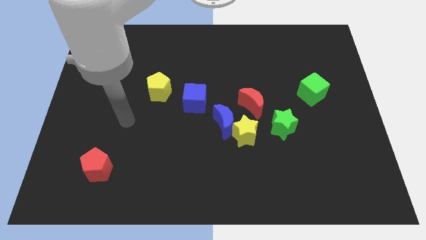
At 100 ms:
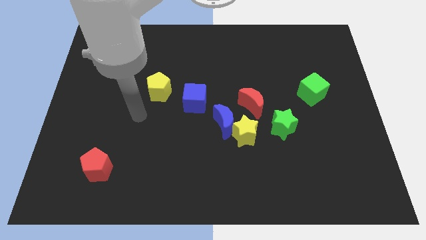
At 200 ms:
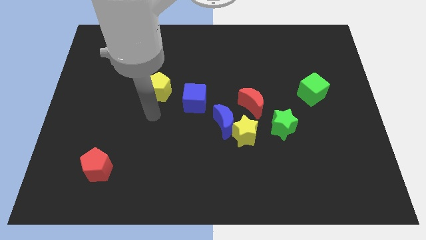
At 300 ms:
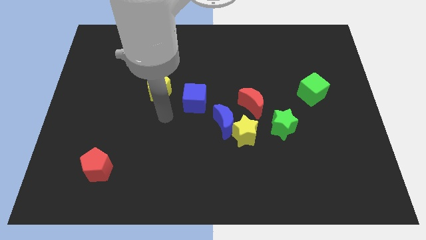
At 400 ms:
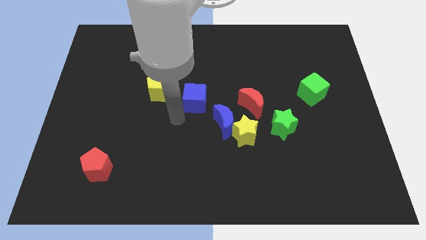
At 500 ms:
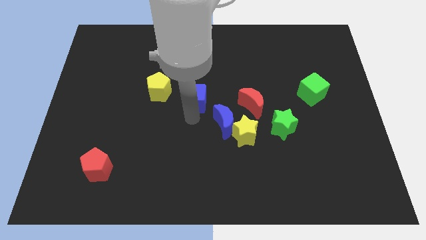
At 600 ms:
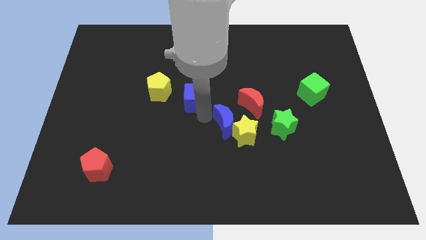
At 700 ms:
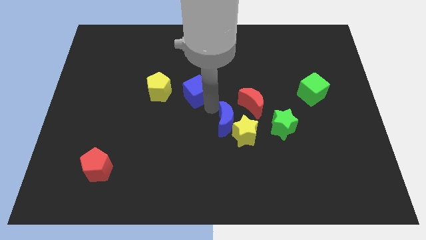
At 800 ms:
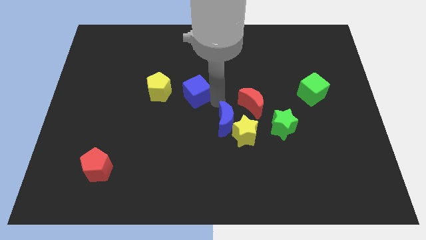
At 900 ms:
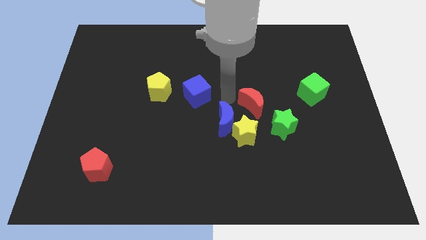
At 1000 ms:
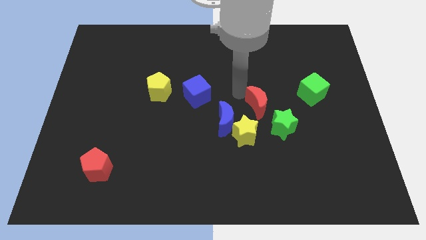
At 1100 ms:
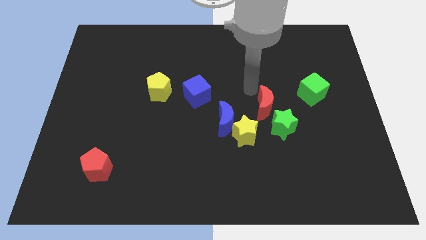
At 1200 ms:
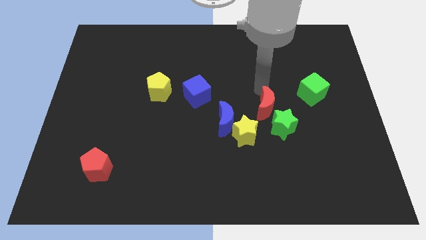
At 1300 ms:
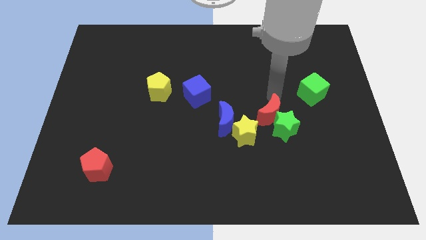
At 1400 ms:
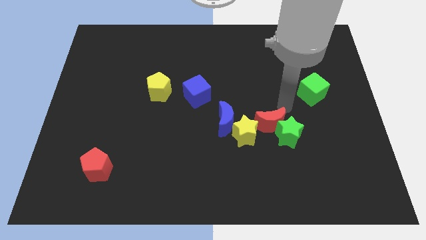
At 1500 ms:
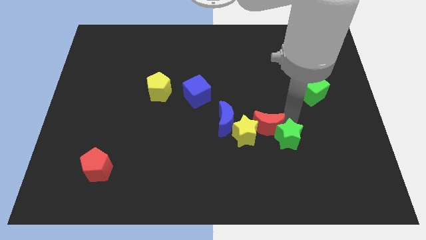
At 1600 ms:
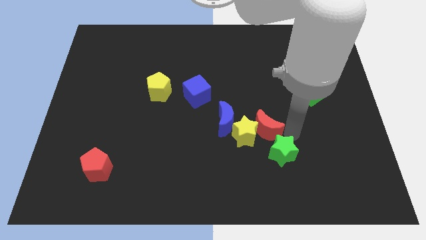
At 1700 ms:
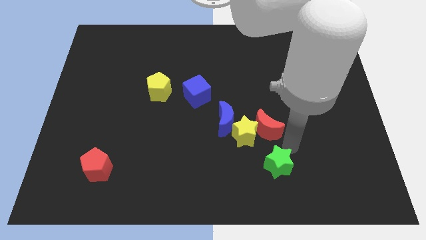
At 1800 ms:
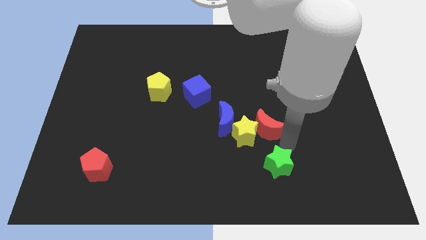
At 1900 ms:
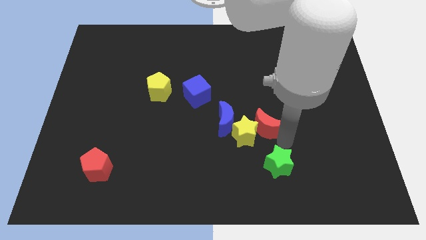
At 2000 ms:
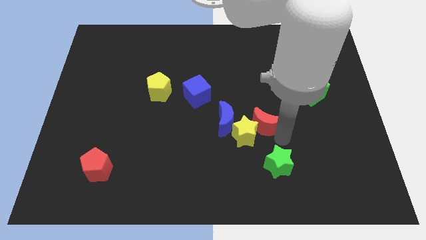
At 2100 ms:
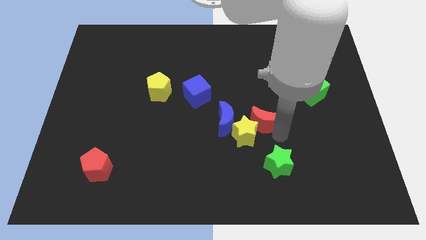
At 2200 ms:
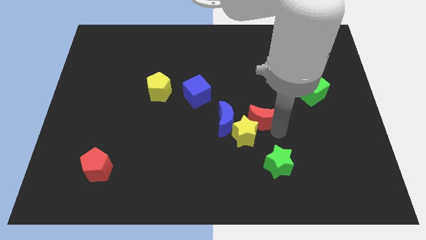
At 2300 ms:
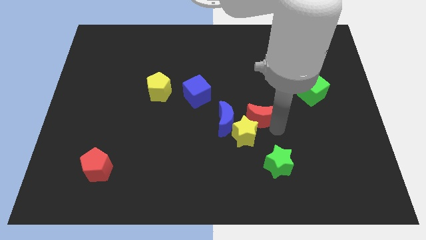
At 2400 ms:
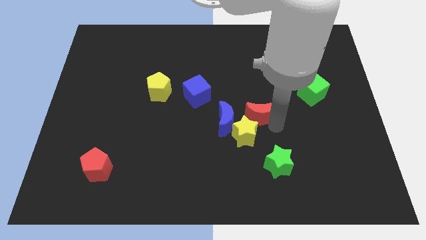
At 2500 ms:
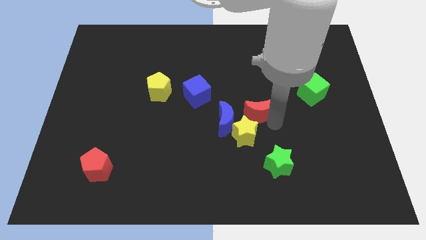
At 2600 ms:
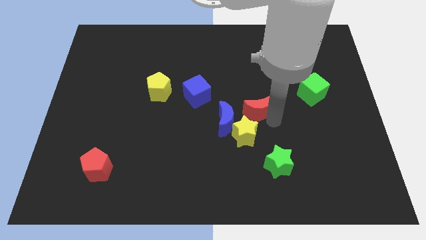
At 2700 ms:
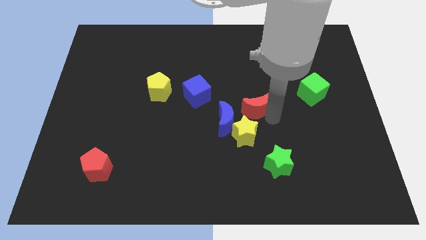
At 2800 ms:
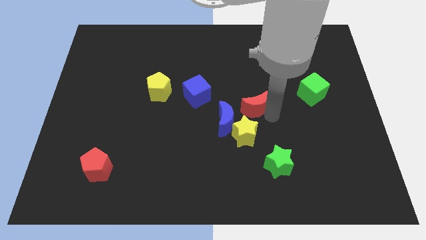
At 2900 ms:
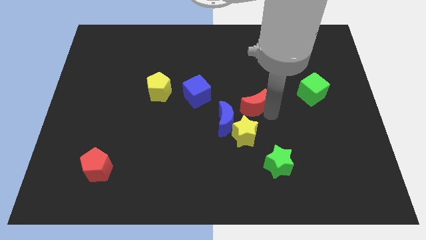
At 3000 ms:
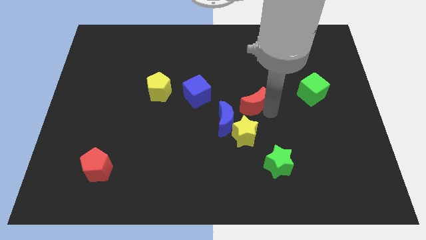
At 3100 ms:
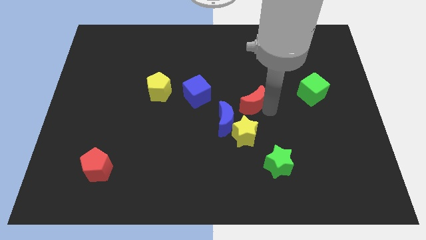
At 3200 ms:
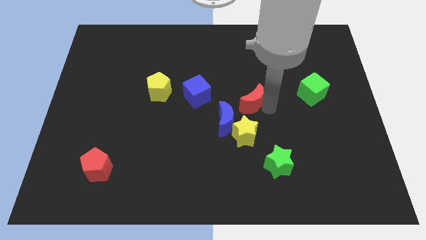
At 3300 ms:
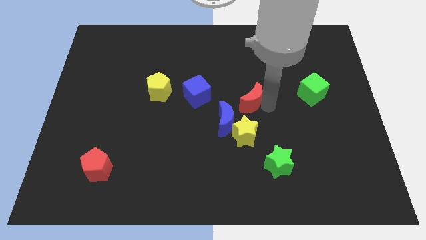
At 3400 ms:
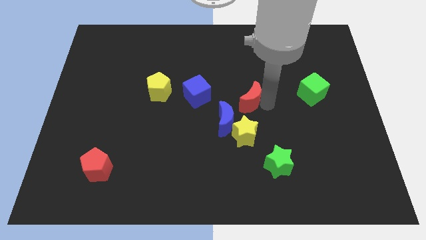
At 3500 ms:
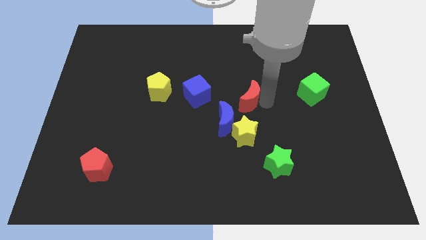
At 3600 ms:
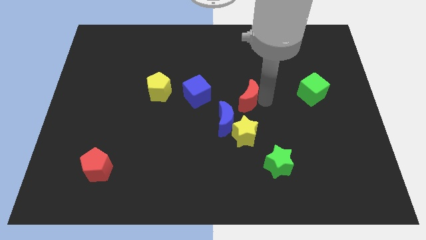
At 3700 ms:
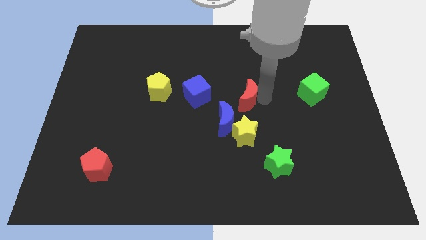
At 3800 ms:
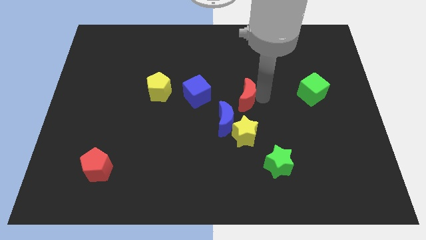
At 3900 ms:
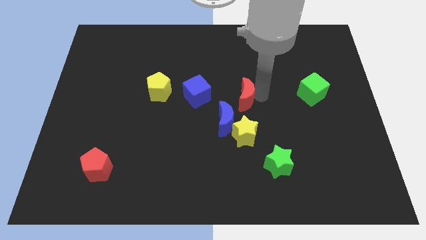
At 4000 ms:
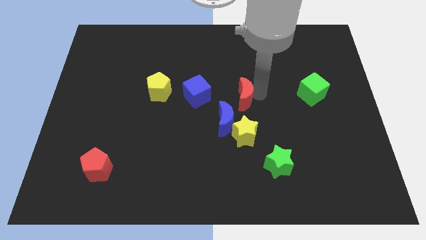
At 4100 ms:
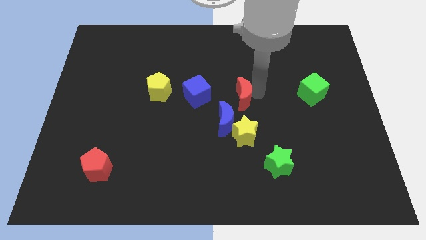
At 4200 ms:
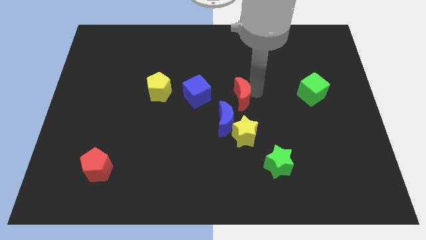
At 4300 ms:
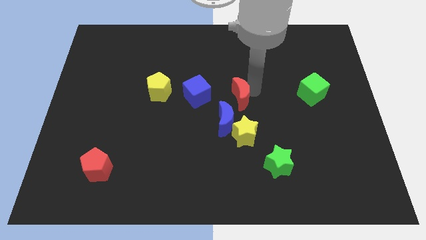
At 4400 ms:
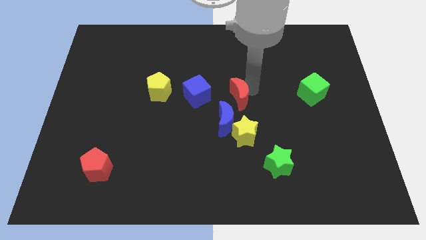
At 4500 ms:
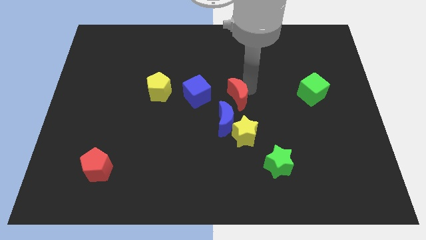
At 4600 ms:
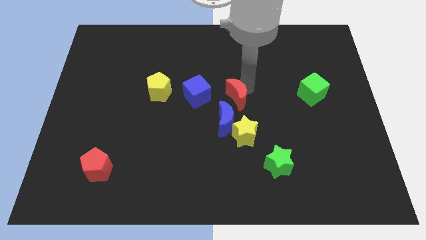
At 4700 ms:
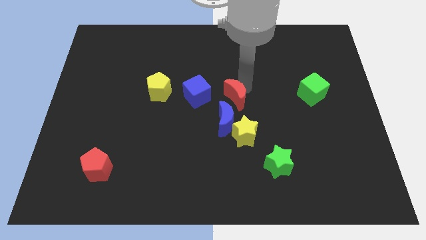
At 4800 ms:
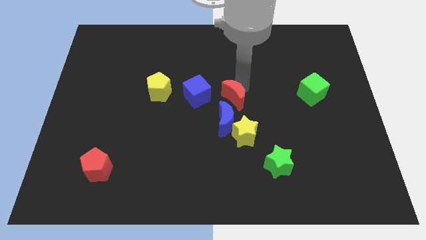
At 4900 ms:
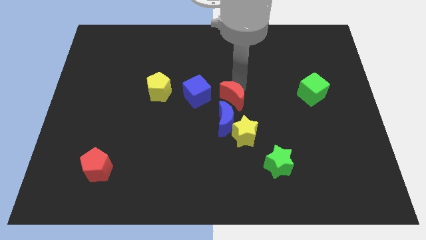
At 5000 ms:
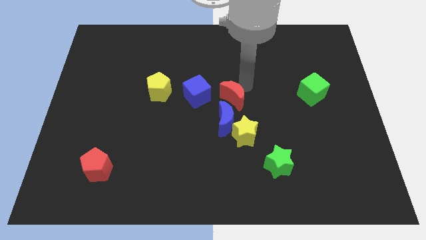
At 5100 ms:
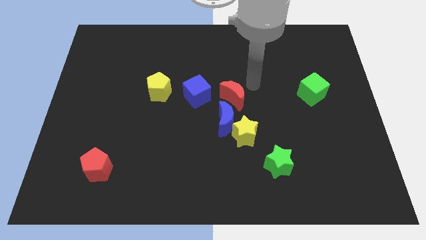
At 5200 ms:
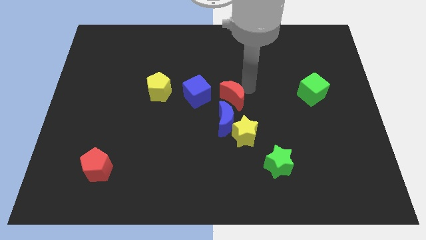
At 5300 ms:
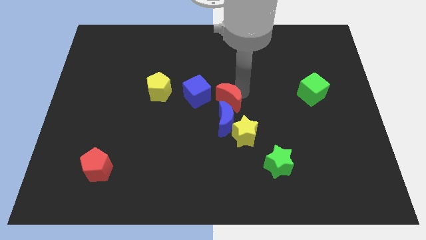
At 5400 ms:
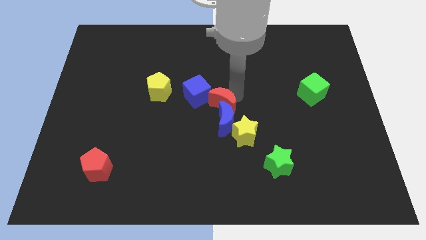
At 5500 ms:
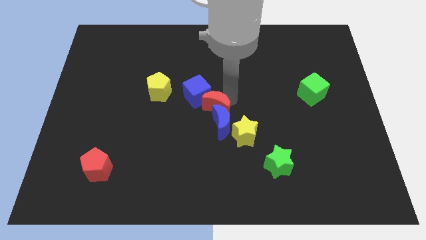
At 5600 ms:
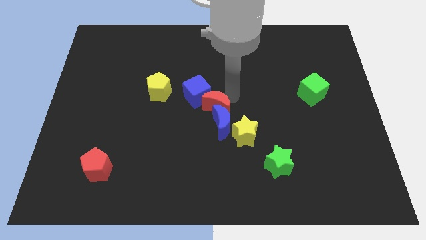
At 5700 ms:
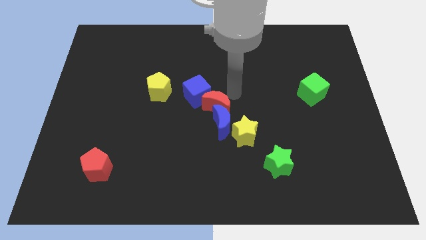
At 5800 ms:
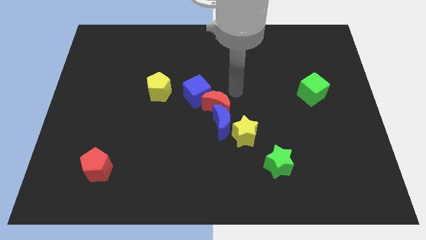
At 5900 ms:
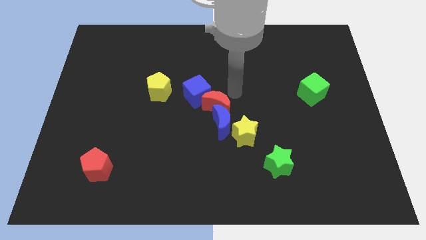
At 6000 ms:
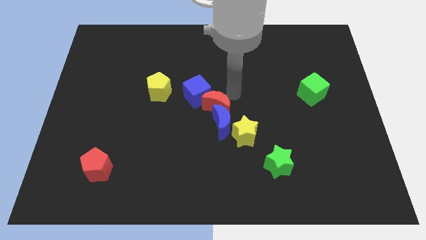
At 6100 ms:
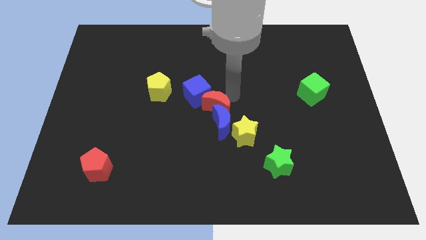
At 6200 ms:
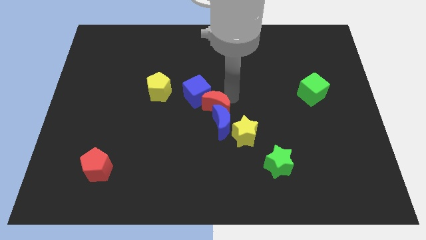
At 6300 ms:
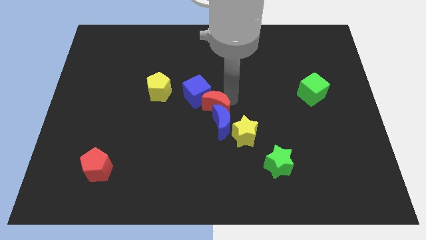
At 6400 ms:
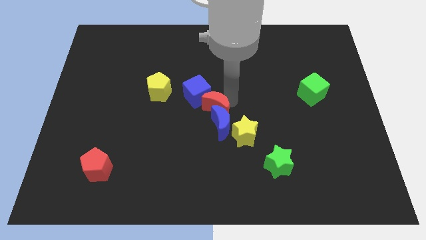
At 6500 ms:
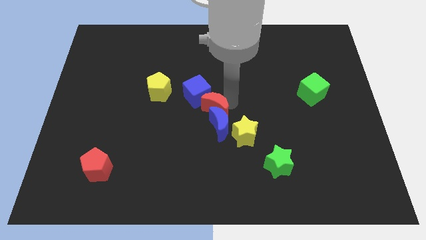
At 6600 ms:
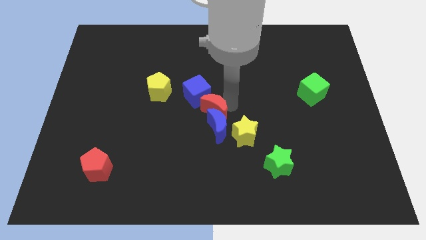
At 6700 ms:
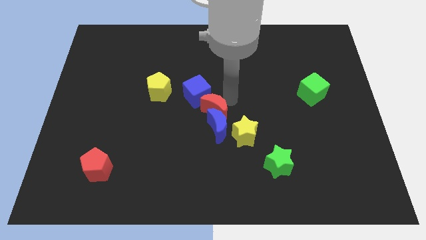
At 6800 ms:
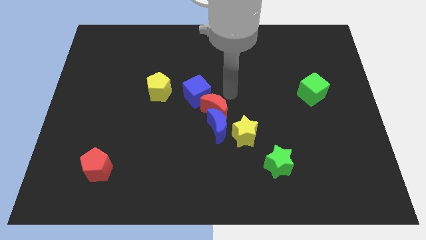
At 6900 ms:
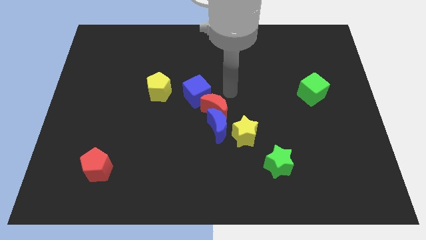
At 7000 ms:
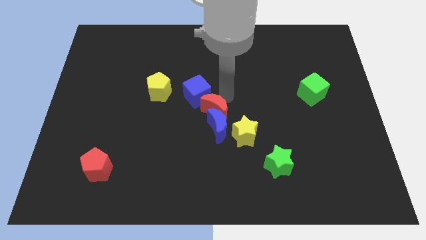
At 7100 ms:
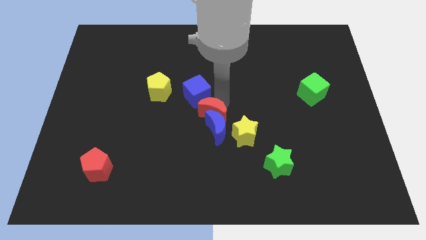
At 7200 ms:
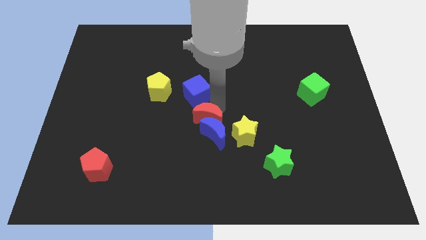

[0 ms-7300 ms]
move the red moon to the left of the yellow star
